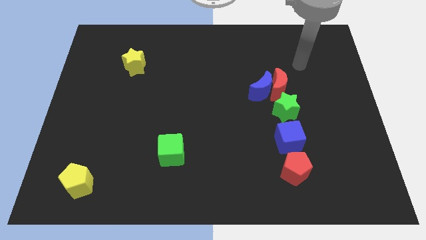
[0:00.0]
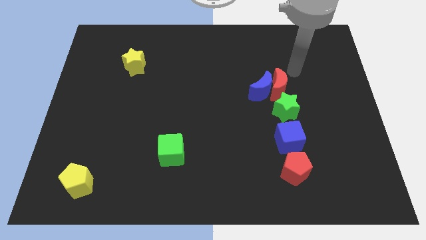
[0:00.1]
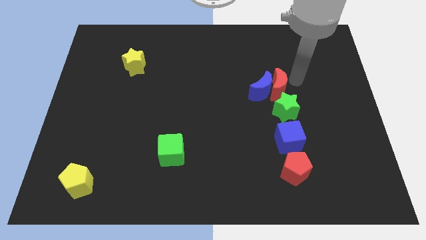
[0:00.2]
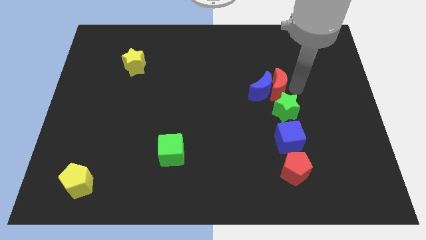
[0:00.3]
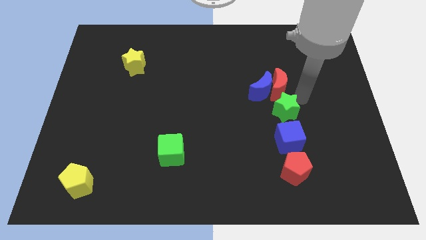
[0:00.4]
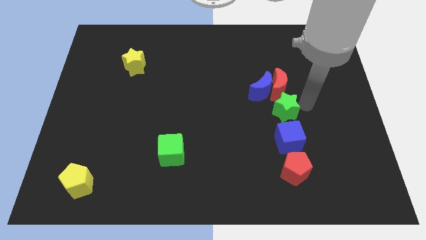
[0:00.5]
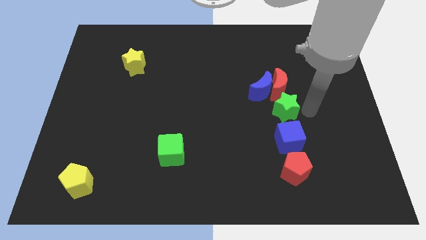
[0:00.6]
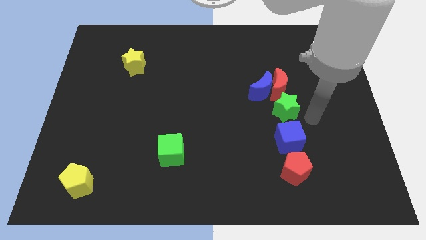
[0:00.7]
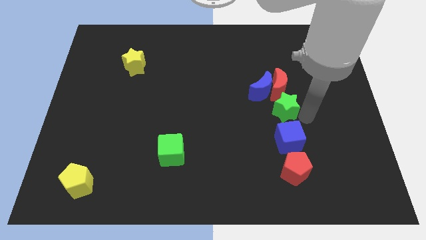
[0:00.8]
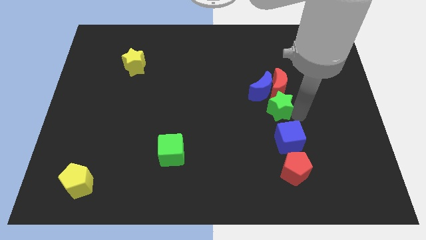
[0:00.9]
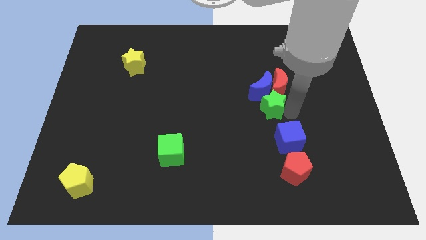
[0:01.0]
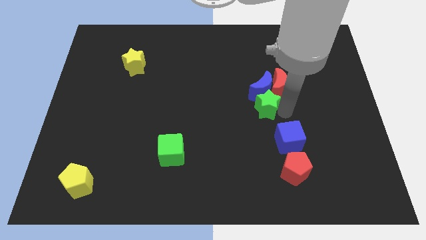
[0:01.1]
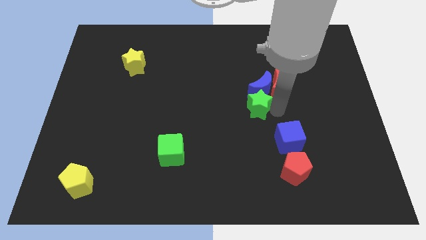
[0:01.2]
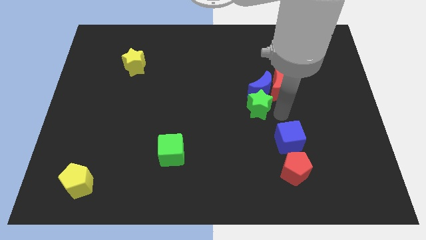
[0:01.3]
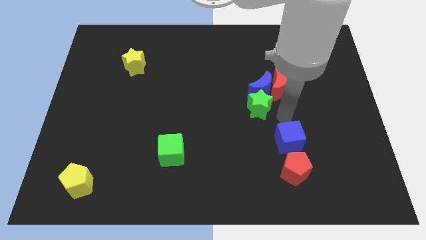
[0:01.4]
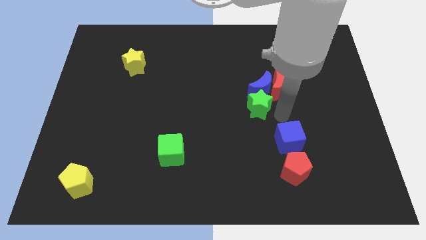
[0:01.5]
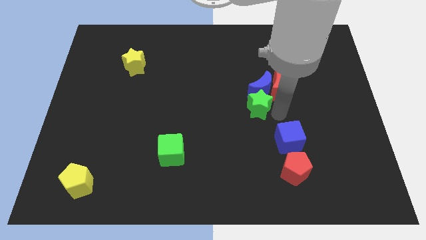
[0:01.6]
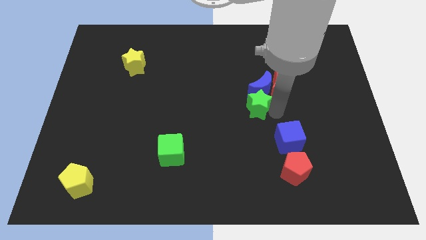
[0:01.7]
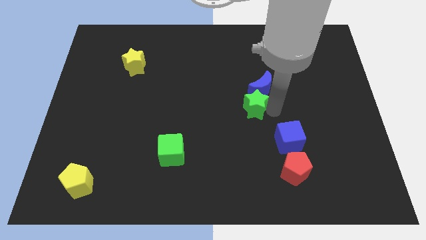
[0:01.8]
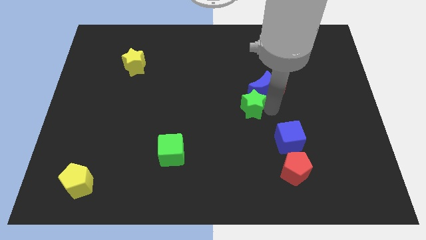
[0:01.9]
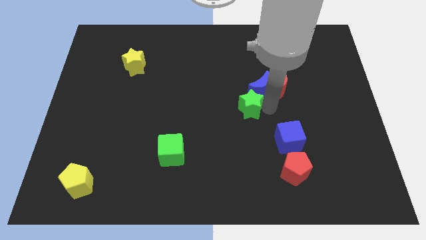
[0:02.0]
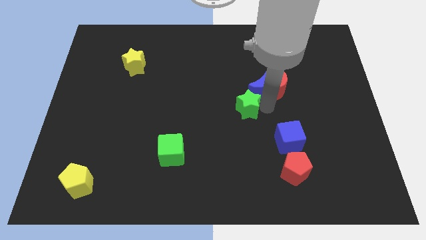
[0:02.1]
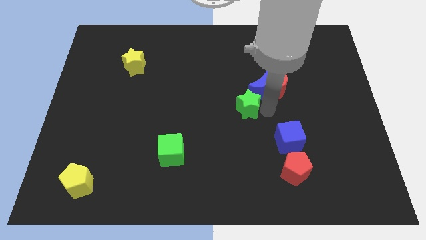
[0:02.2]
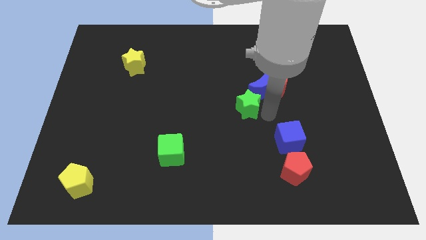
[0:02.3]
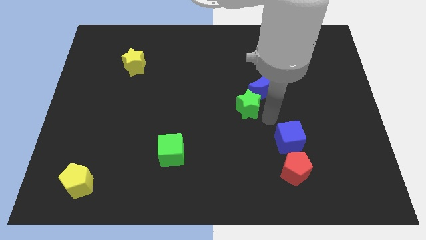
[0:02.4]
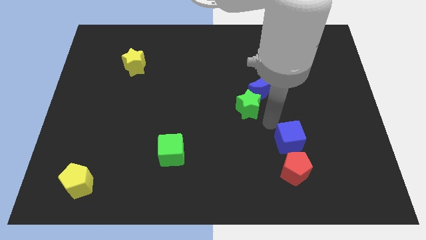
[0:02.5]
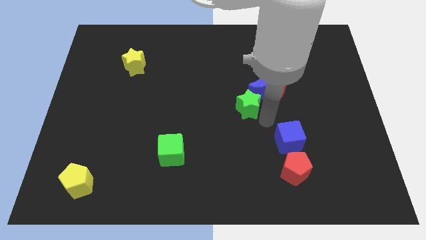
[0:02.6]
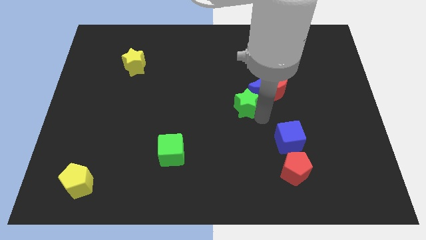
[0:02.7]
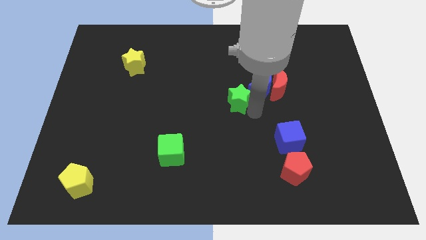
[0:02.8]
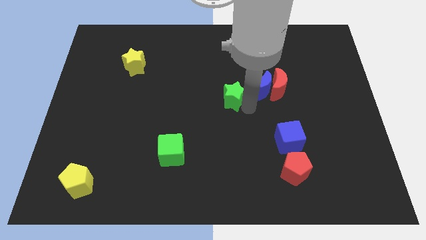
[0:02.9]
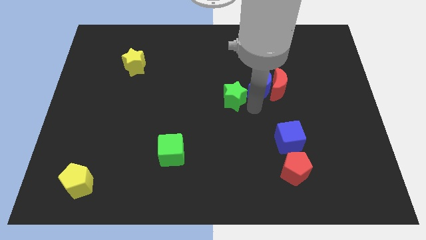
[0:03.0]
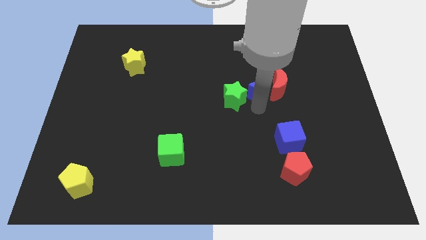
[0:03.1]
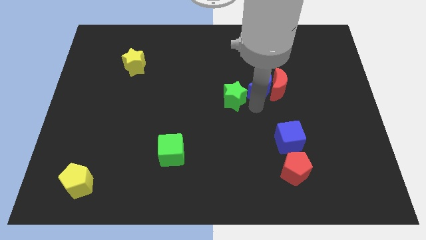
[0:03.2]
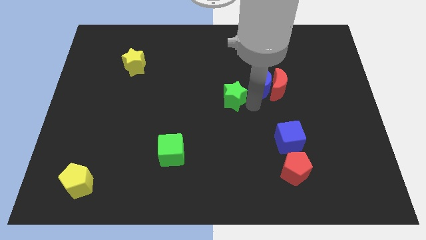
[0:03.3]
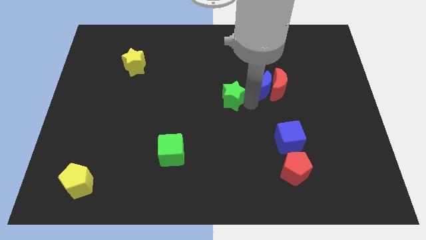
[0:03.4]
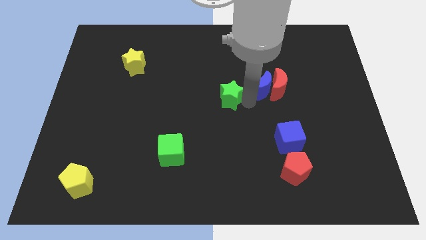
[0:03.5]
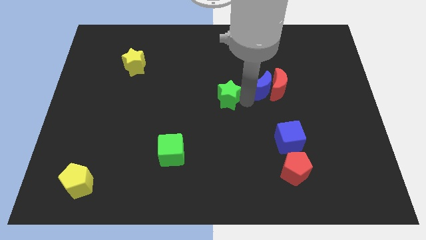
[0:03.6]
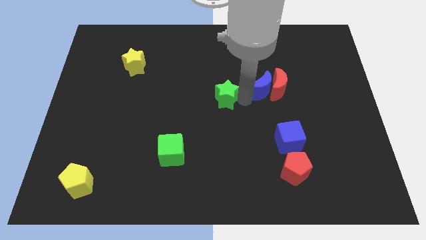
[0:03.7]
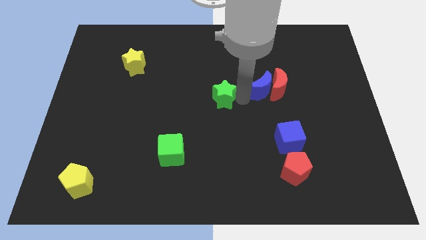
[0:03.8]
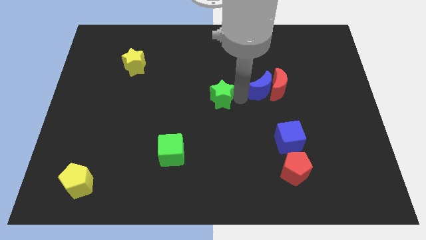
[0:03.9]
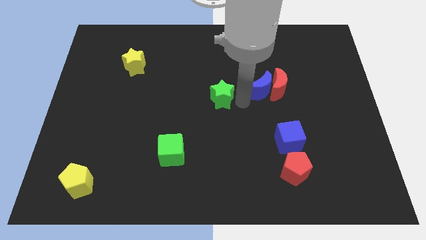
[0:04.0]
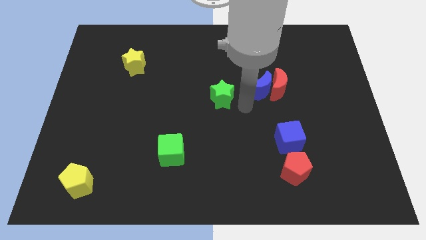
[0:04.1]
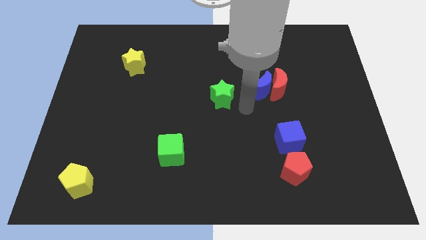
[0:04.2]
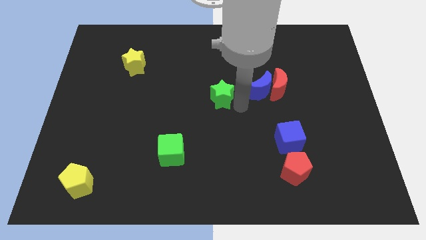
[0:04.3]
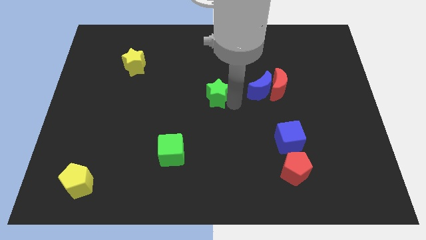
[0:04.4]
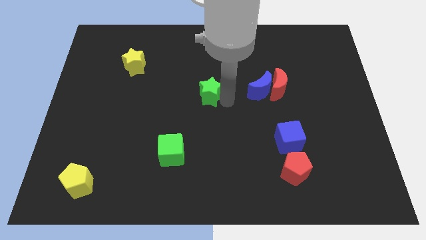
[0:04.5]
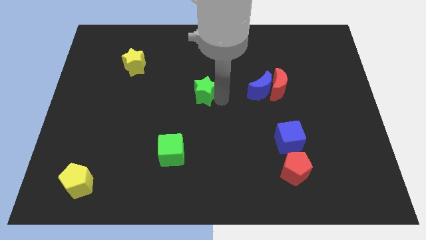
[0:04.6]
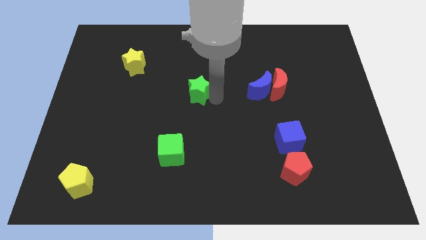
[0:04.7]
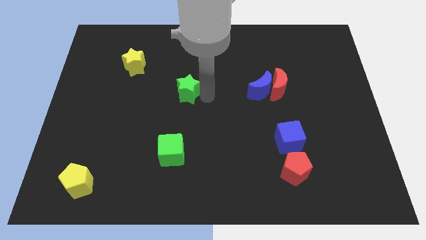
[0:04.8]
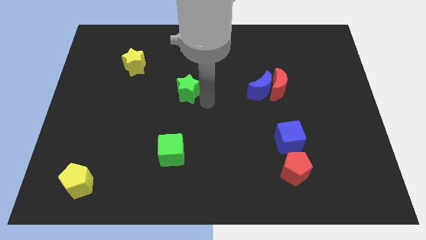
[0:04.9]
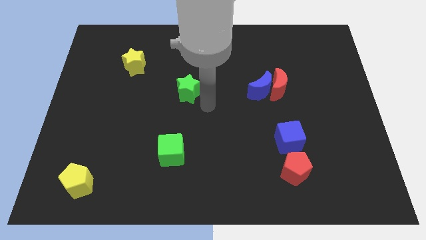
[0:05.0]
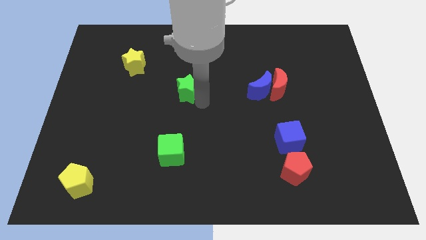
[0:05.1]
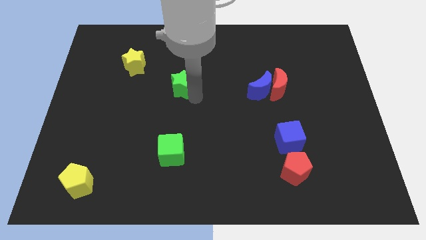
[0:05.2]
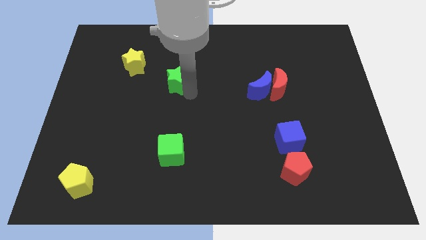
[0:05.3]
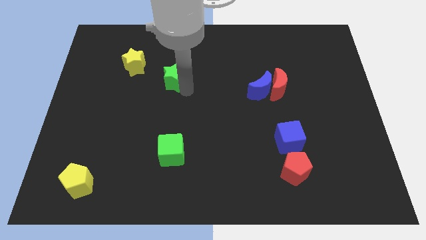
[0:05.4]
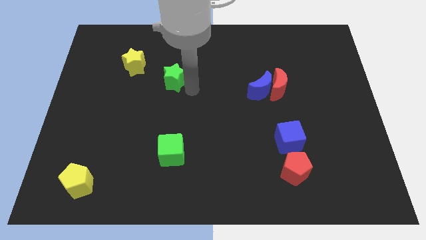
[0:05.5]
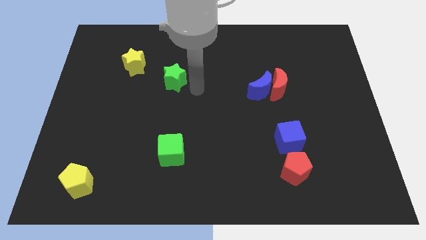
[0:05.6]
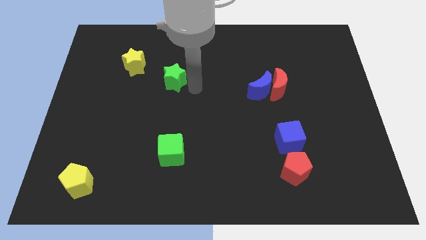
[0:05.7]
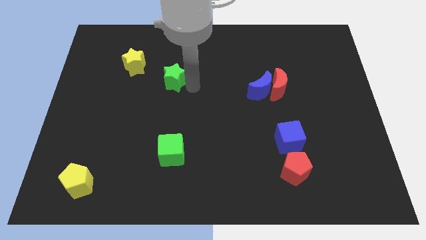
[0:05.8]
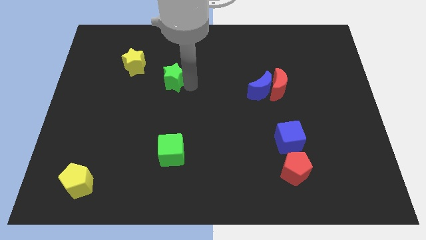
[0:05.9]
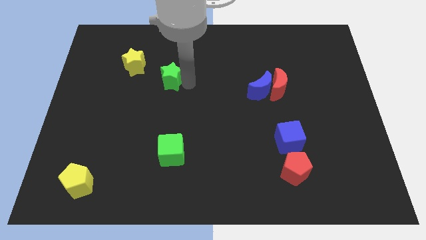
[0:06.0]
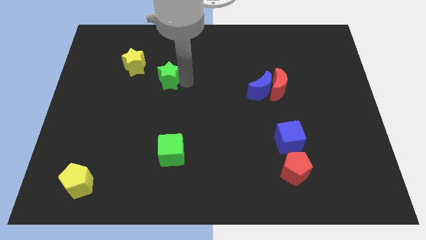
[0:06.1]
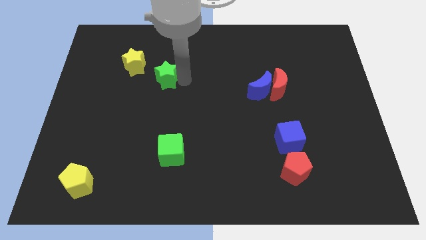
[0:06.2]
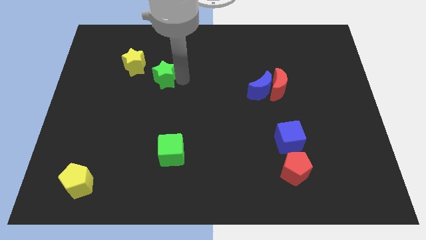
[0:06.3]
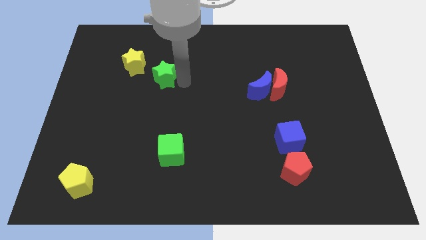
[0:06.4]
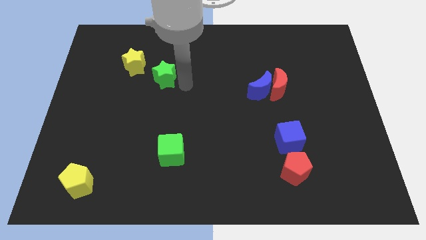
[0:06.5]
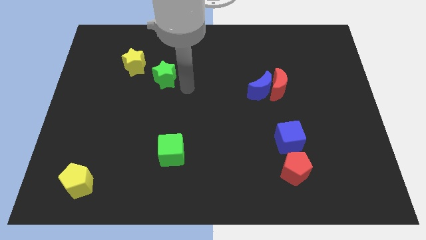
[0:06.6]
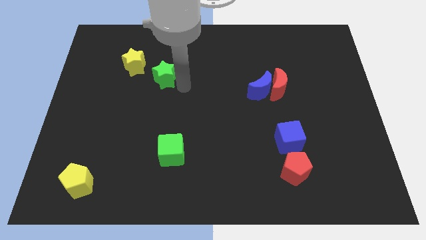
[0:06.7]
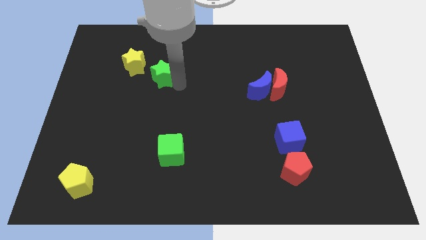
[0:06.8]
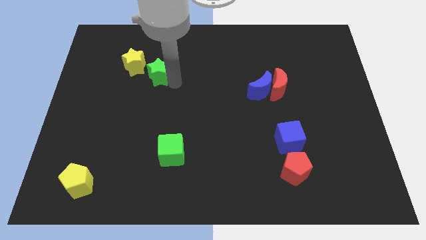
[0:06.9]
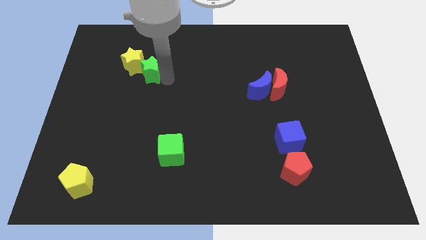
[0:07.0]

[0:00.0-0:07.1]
slide the green star towards the yellow star

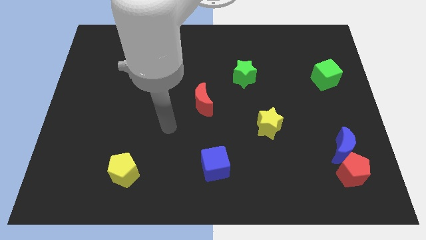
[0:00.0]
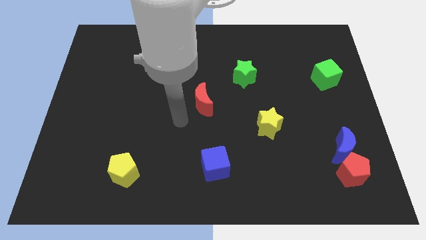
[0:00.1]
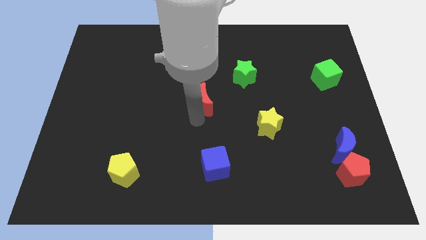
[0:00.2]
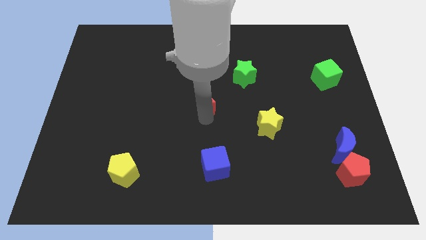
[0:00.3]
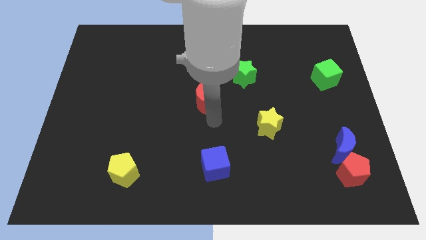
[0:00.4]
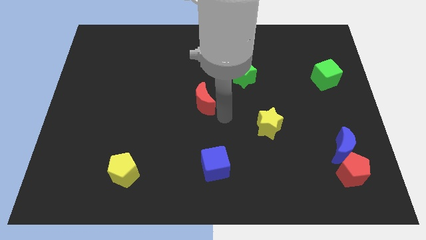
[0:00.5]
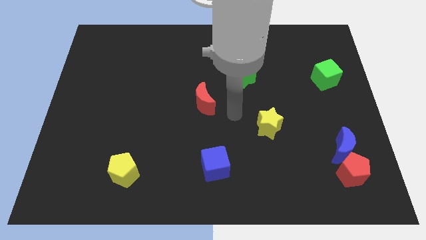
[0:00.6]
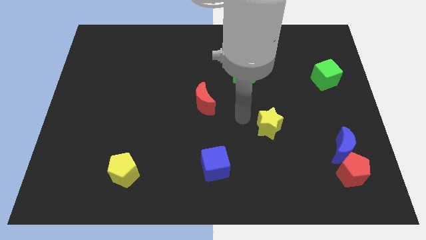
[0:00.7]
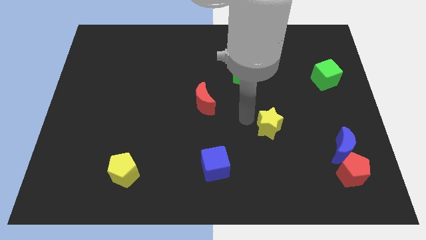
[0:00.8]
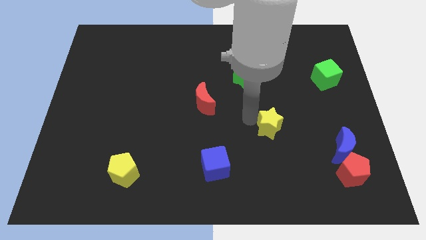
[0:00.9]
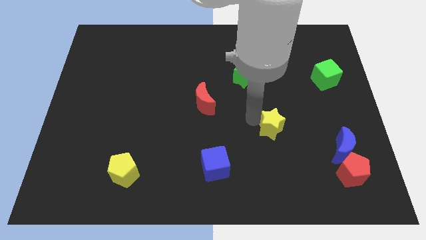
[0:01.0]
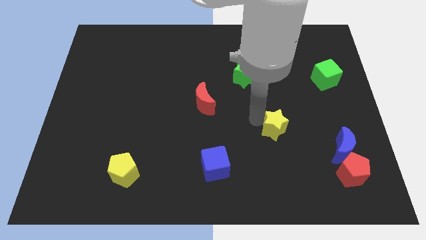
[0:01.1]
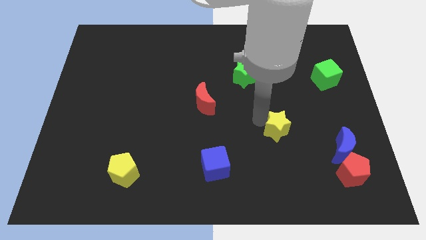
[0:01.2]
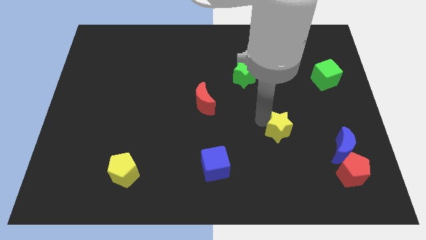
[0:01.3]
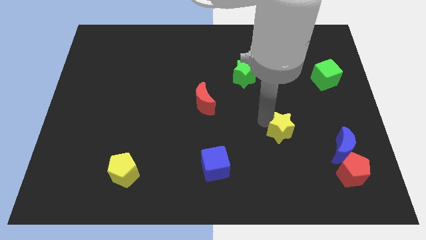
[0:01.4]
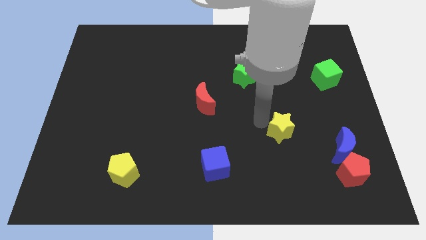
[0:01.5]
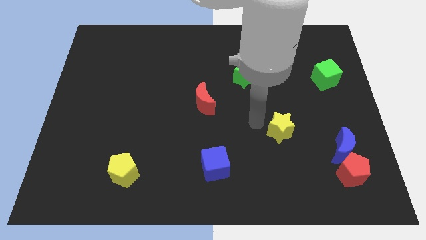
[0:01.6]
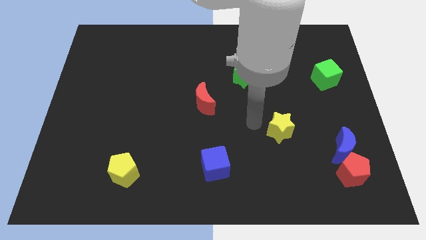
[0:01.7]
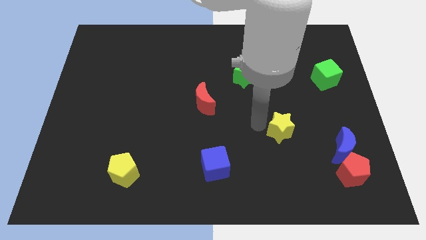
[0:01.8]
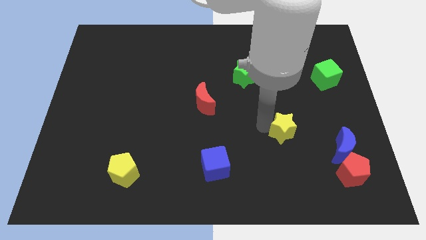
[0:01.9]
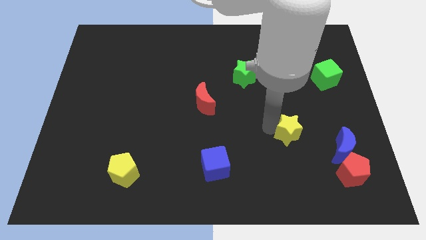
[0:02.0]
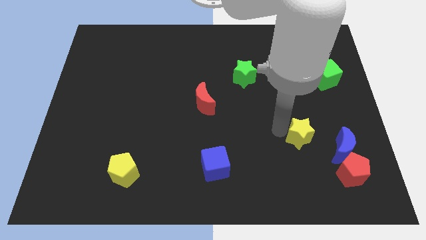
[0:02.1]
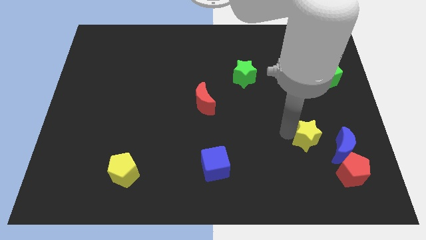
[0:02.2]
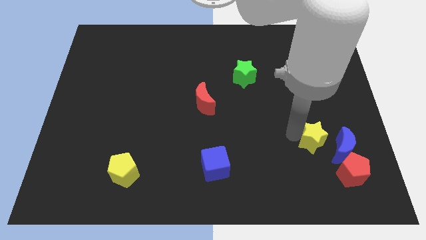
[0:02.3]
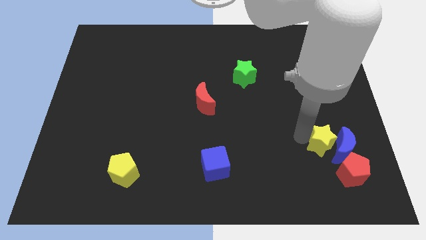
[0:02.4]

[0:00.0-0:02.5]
put the yellow star close to the blue moon
